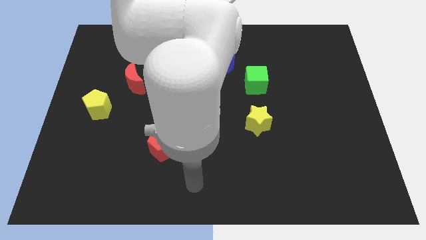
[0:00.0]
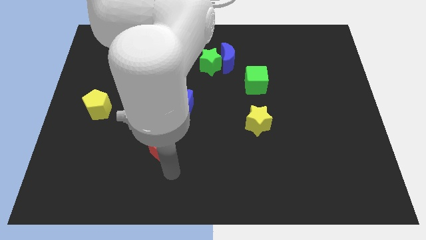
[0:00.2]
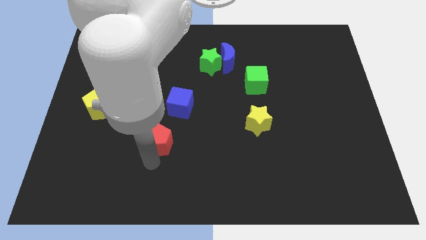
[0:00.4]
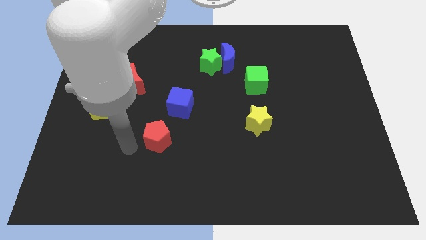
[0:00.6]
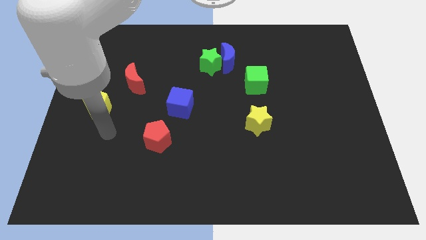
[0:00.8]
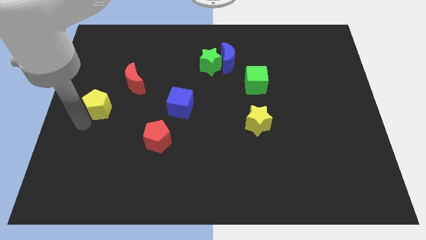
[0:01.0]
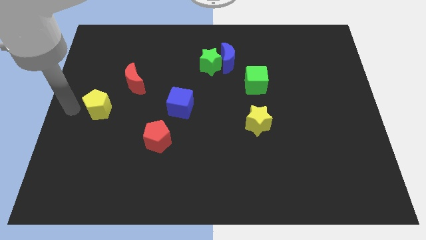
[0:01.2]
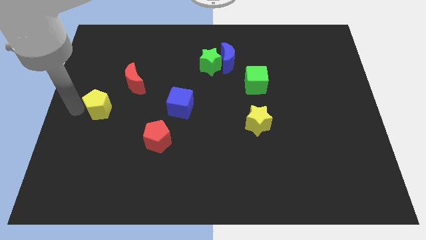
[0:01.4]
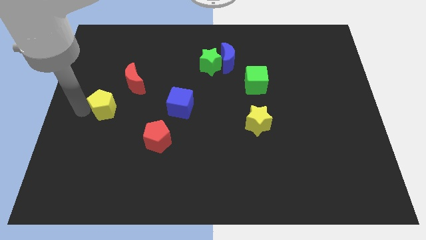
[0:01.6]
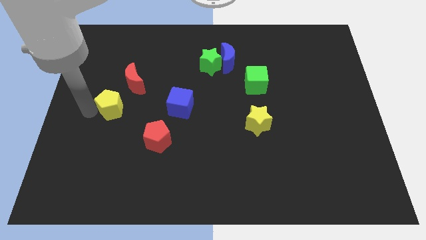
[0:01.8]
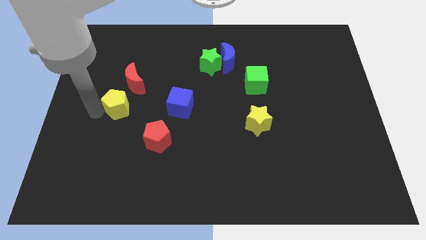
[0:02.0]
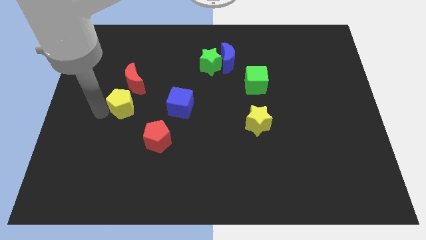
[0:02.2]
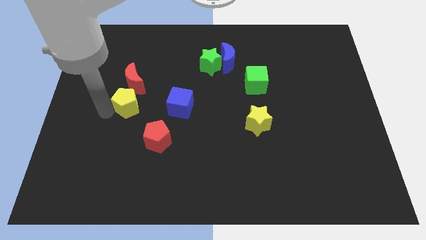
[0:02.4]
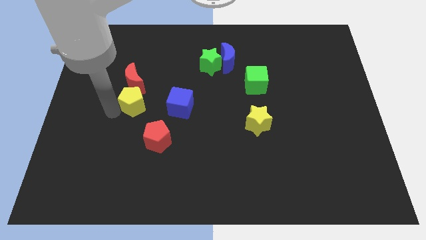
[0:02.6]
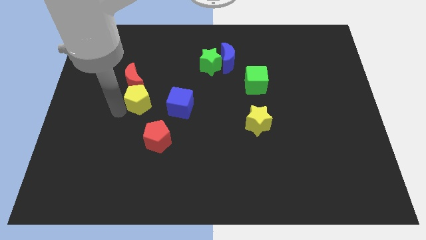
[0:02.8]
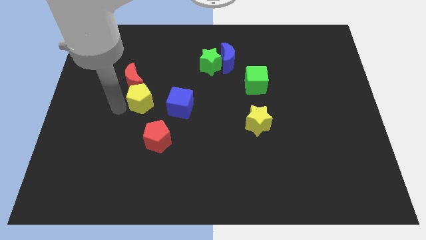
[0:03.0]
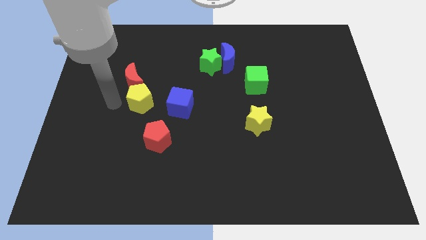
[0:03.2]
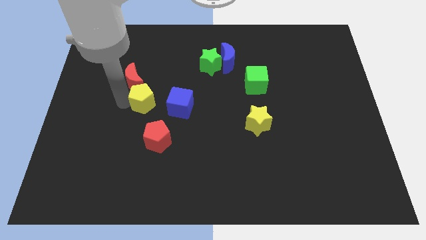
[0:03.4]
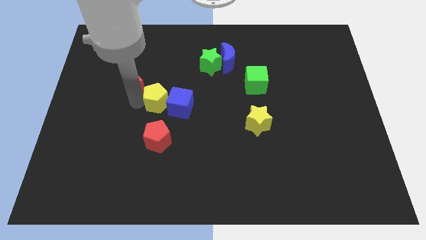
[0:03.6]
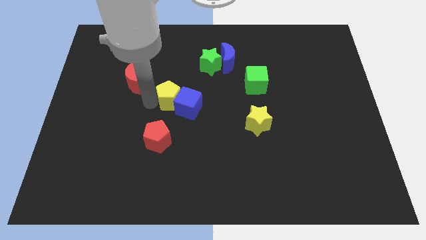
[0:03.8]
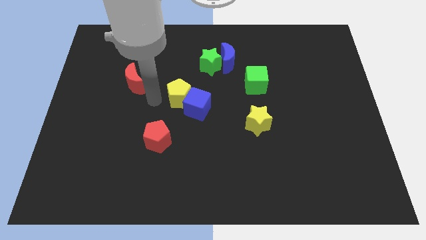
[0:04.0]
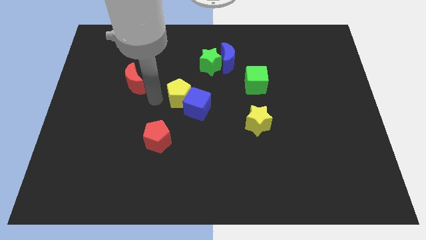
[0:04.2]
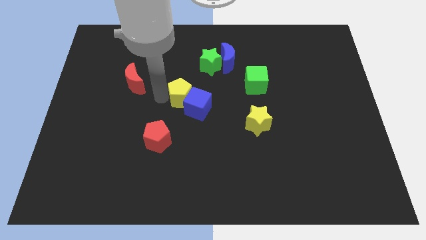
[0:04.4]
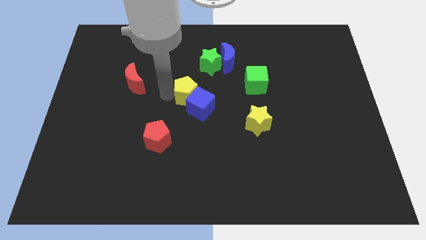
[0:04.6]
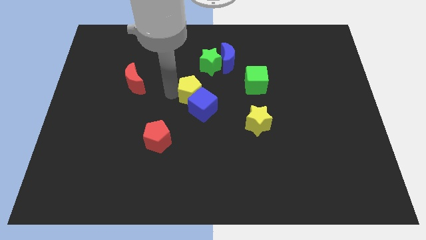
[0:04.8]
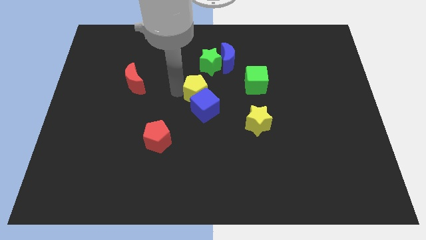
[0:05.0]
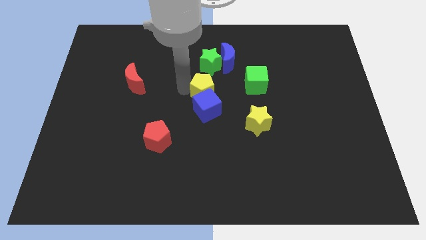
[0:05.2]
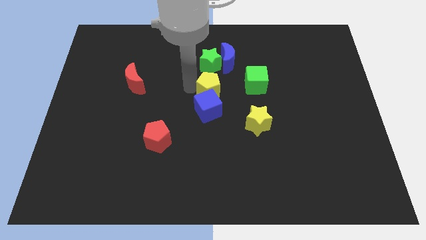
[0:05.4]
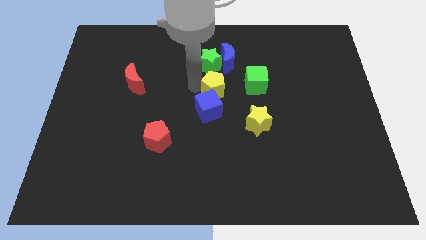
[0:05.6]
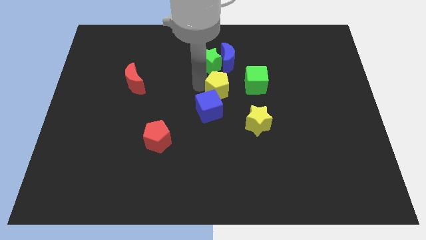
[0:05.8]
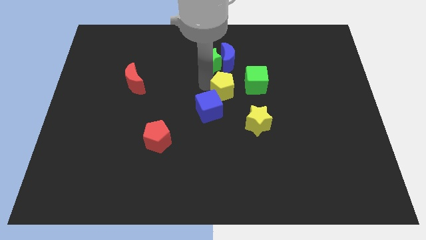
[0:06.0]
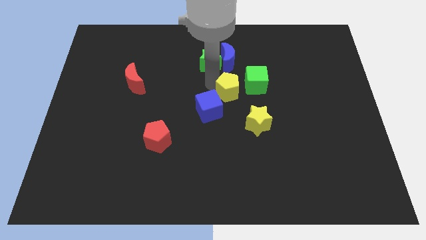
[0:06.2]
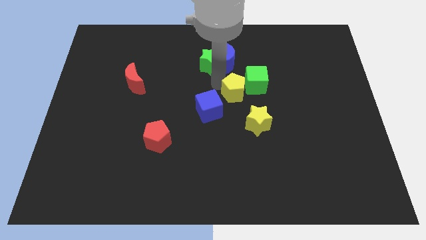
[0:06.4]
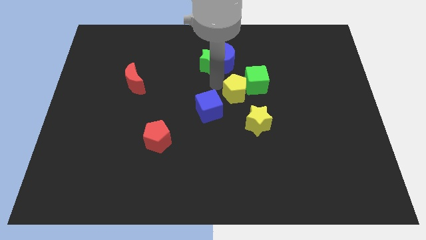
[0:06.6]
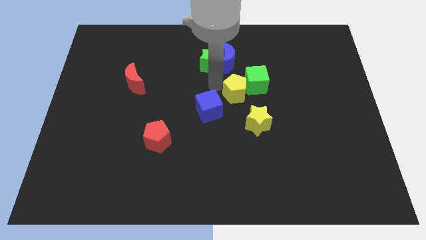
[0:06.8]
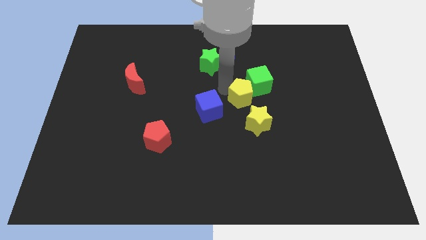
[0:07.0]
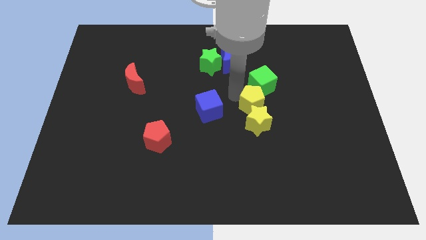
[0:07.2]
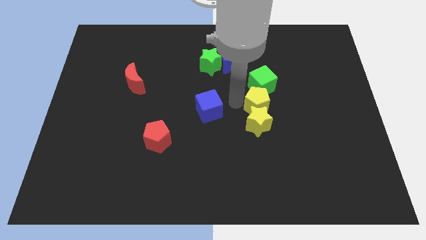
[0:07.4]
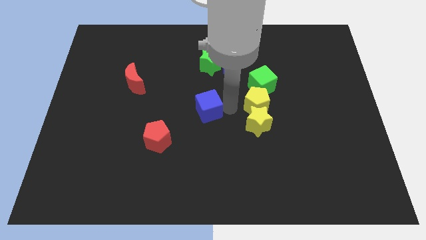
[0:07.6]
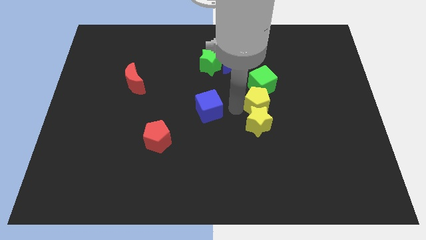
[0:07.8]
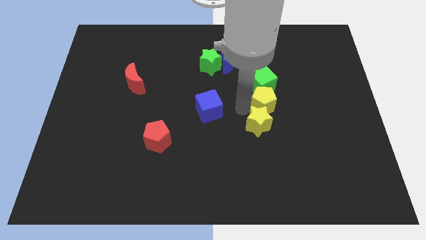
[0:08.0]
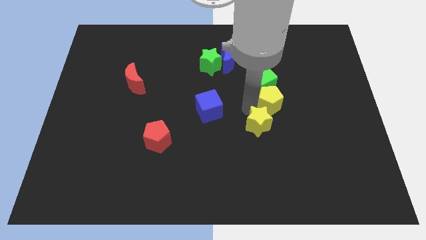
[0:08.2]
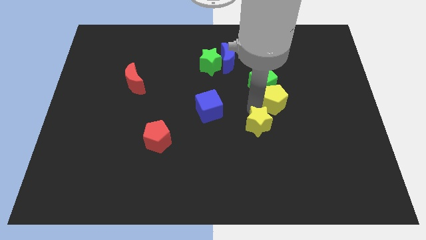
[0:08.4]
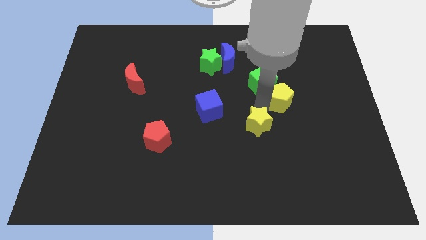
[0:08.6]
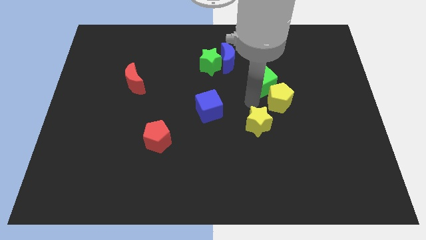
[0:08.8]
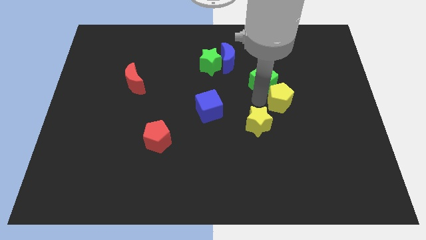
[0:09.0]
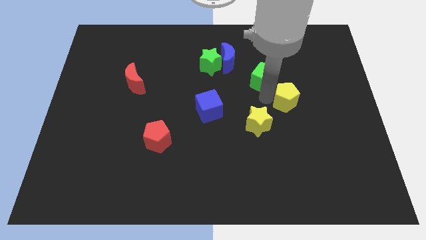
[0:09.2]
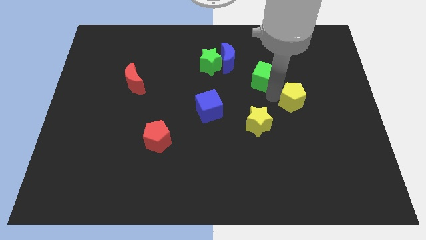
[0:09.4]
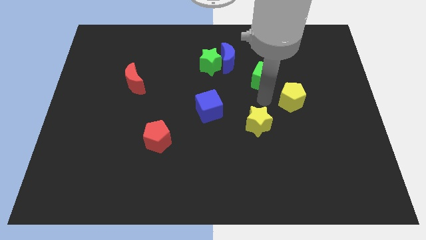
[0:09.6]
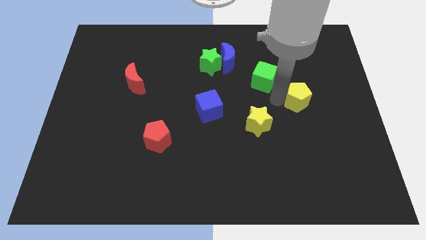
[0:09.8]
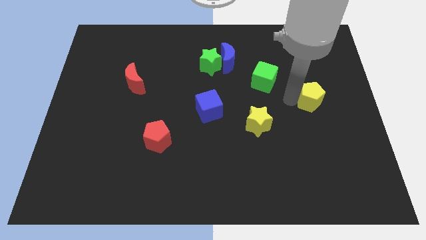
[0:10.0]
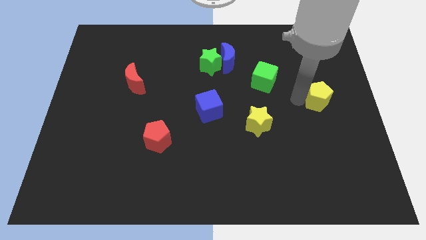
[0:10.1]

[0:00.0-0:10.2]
put the yellow pentagon to the right side

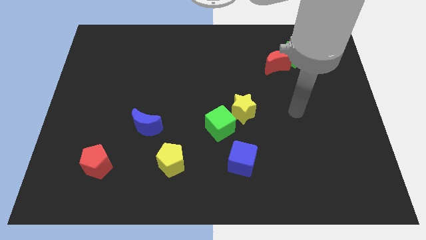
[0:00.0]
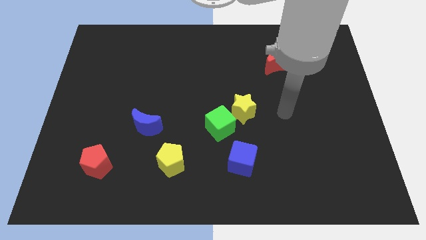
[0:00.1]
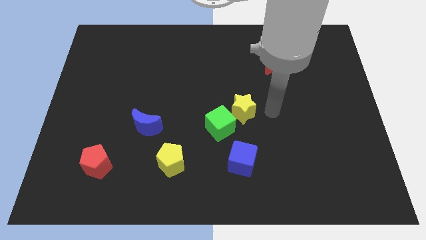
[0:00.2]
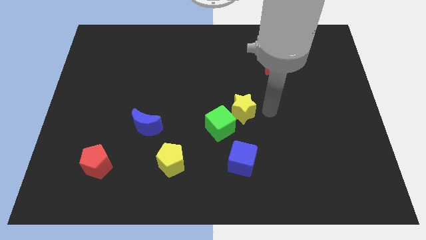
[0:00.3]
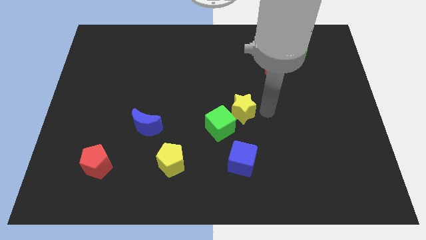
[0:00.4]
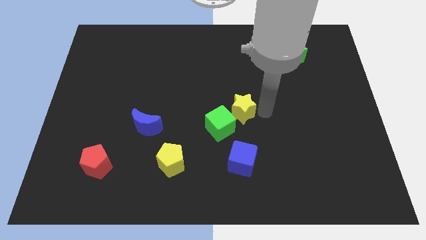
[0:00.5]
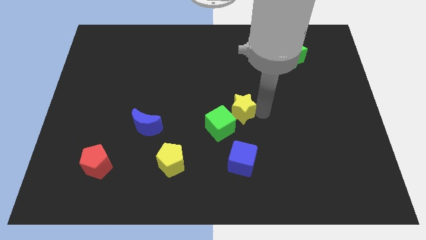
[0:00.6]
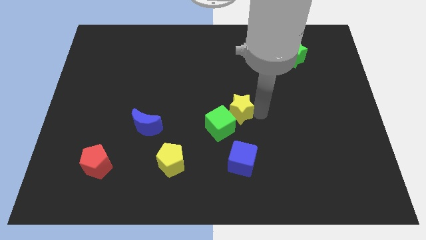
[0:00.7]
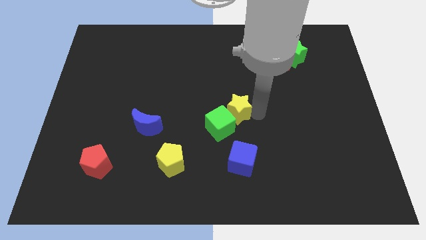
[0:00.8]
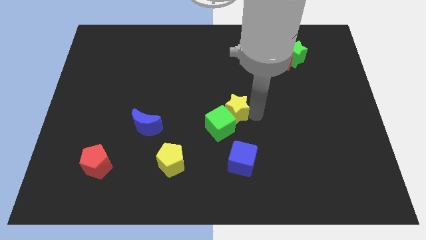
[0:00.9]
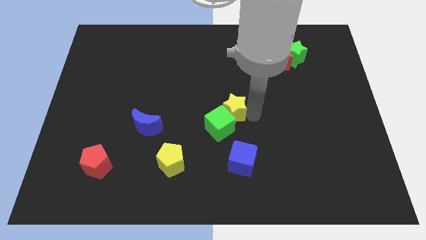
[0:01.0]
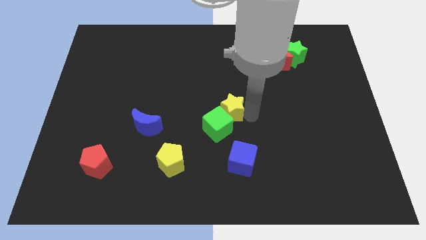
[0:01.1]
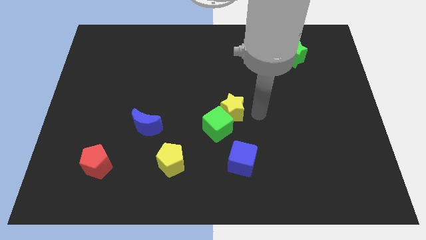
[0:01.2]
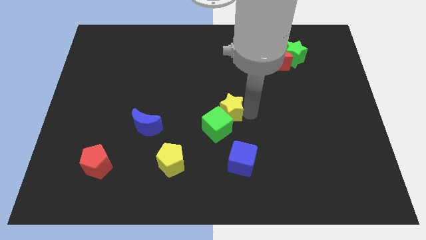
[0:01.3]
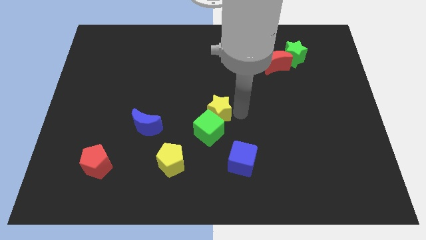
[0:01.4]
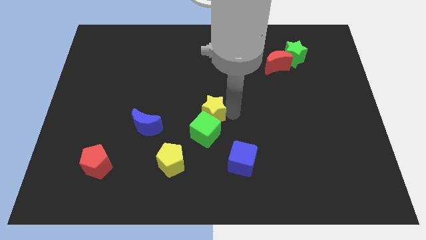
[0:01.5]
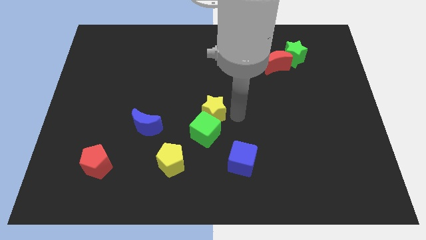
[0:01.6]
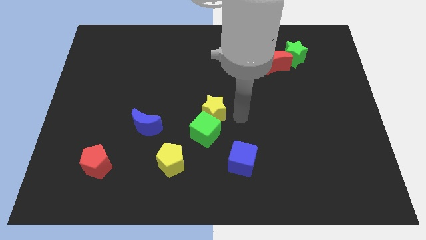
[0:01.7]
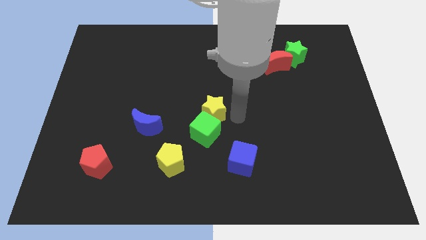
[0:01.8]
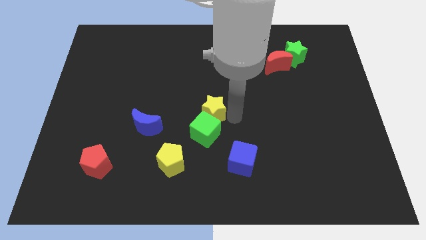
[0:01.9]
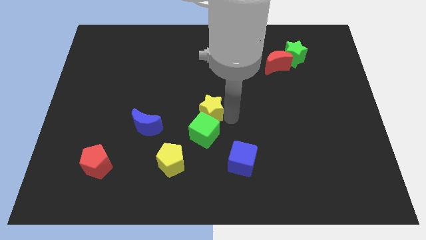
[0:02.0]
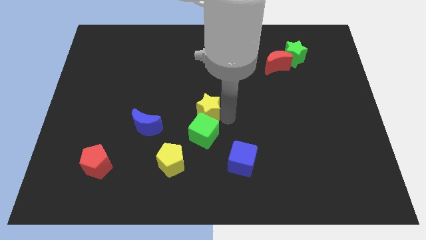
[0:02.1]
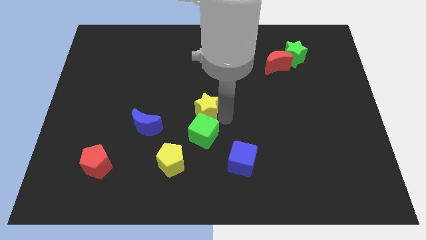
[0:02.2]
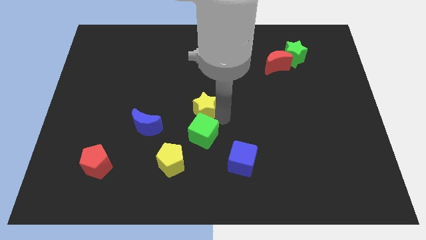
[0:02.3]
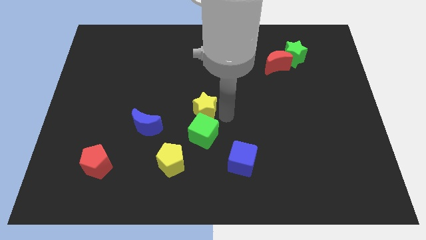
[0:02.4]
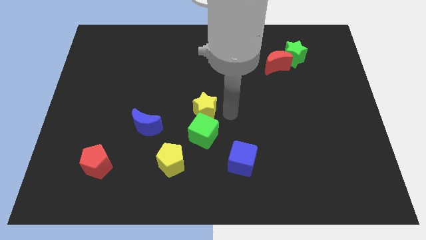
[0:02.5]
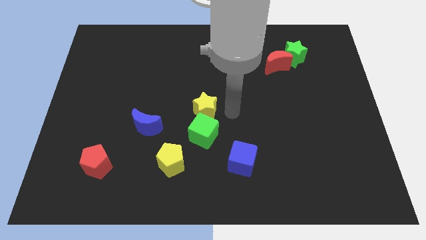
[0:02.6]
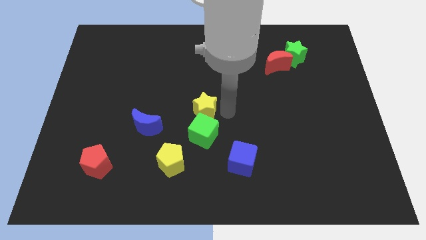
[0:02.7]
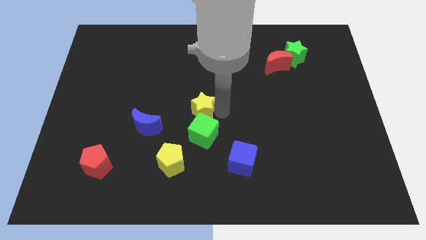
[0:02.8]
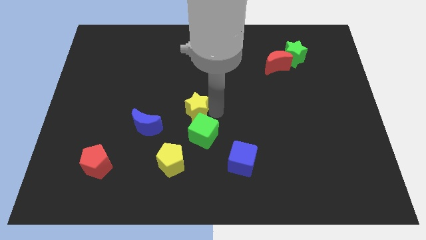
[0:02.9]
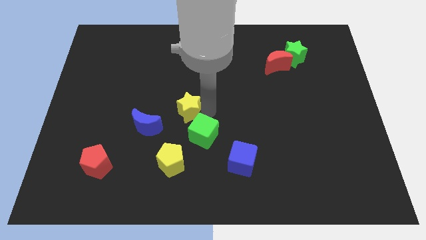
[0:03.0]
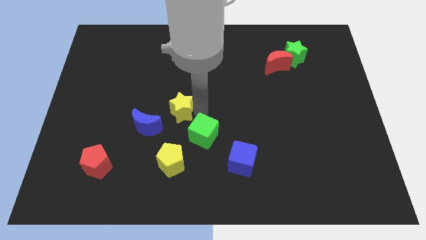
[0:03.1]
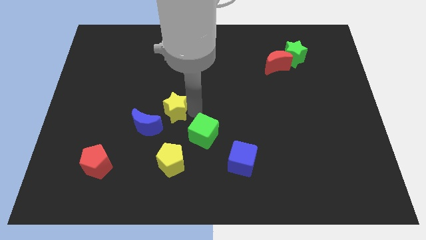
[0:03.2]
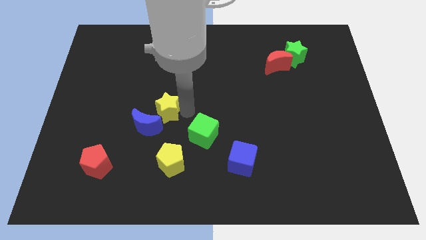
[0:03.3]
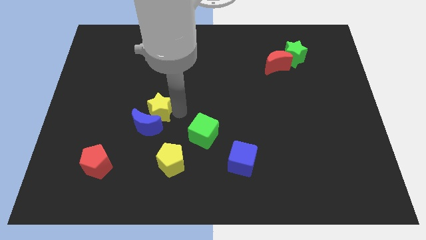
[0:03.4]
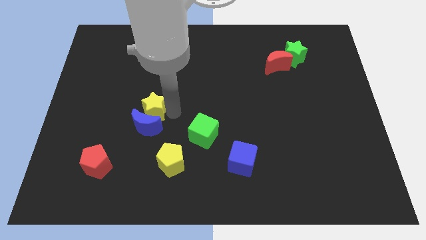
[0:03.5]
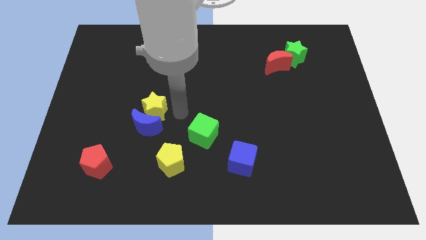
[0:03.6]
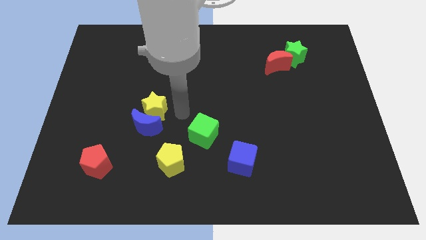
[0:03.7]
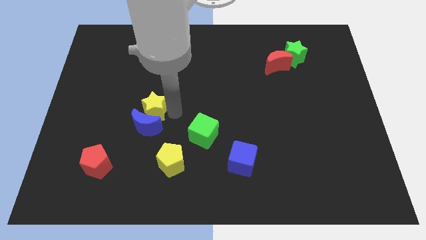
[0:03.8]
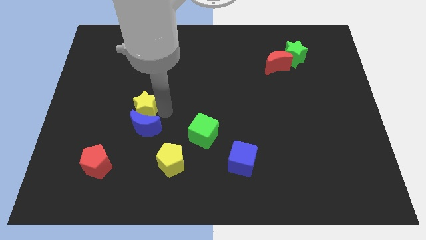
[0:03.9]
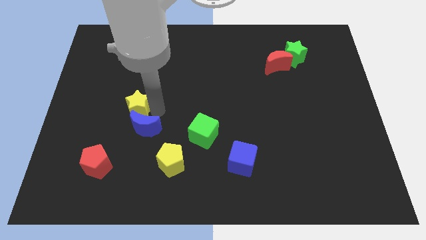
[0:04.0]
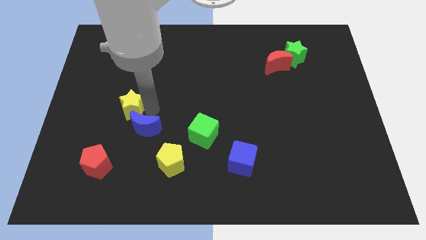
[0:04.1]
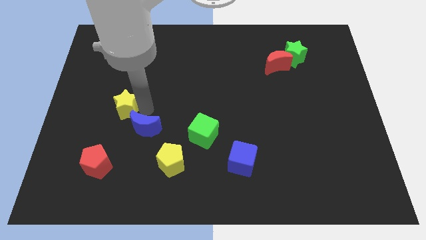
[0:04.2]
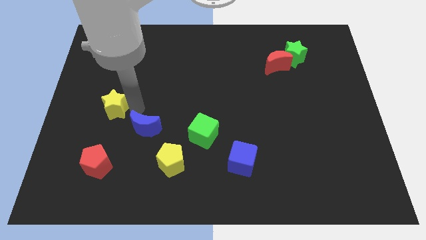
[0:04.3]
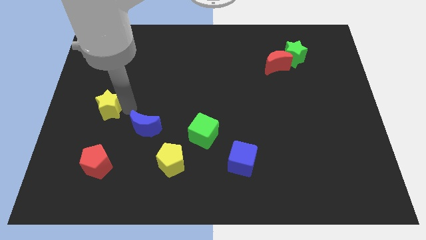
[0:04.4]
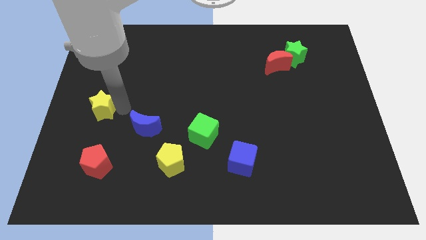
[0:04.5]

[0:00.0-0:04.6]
push the yellow star to the center left
